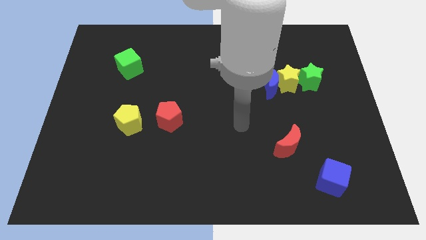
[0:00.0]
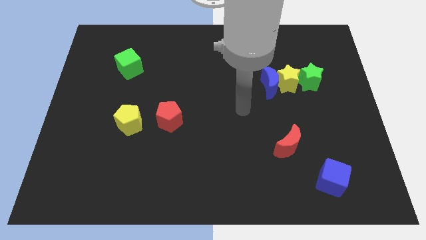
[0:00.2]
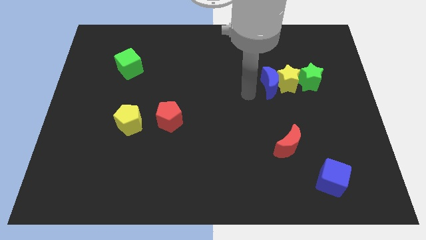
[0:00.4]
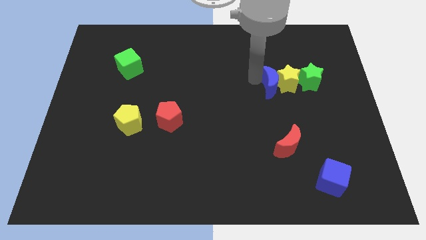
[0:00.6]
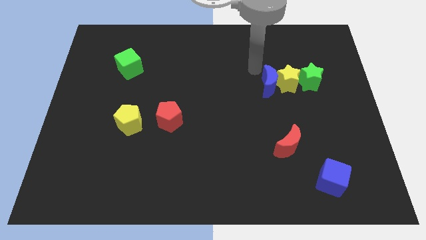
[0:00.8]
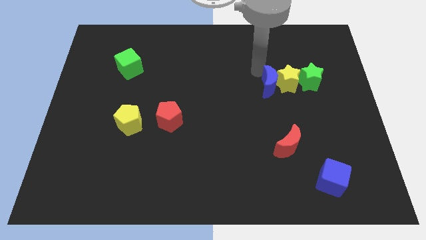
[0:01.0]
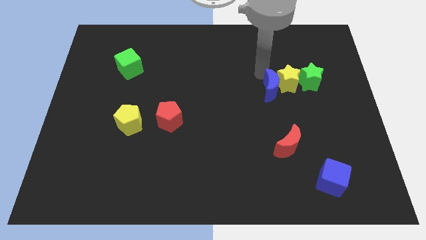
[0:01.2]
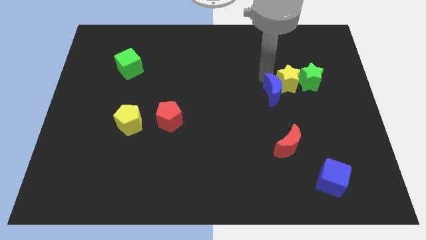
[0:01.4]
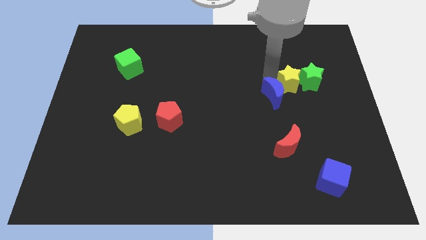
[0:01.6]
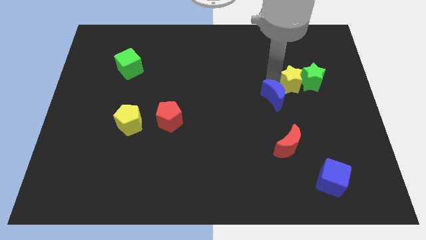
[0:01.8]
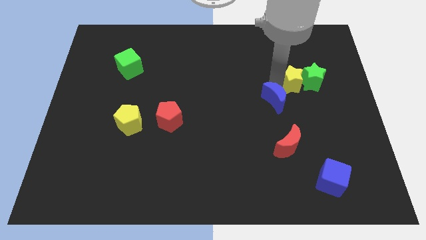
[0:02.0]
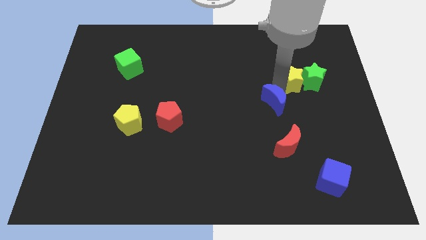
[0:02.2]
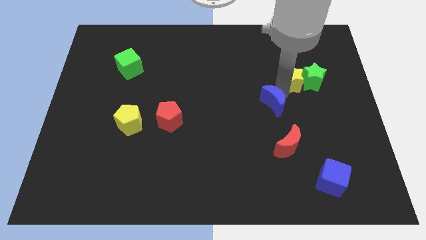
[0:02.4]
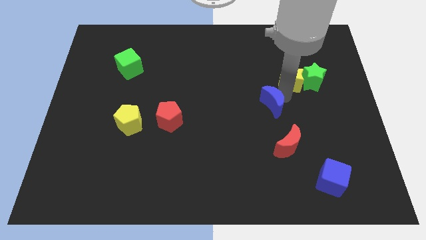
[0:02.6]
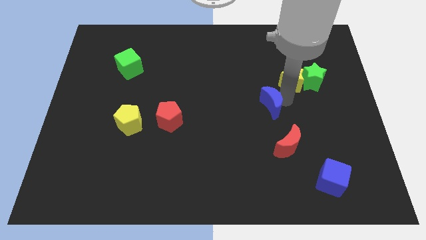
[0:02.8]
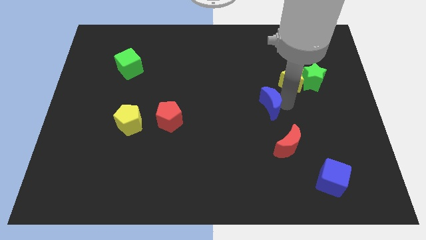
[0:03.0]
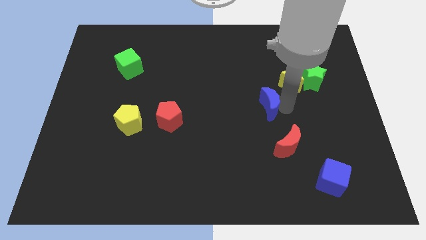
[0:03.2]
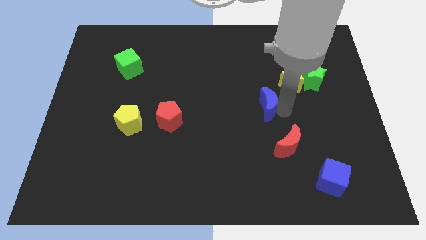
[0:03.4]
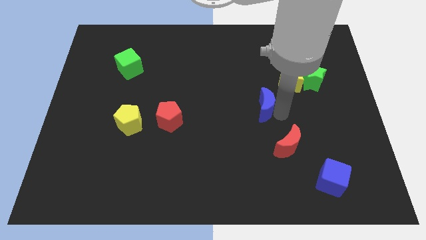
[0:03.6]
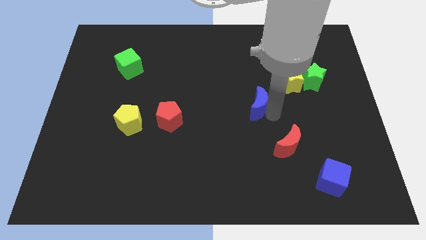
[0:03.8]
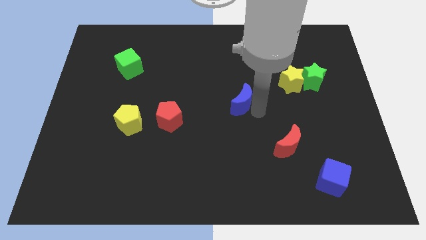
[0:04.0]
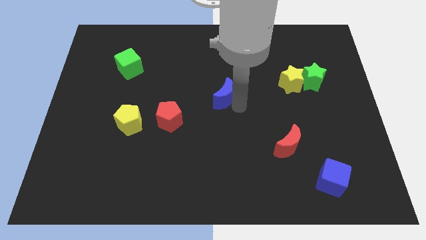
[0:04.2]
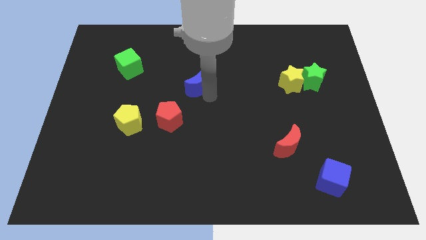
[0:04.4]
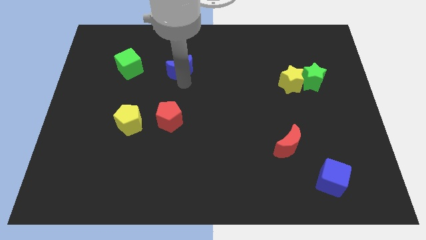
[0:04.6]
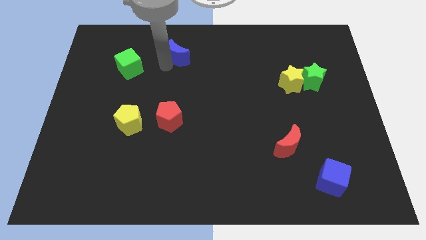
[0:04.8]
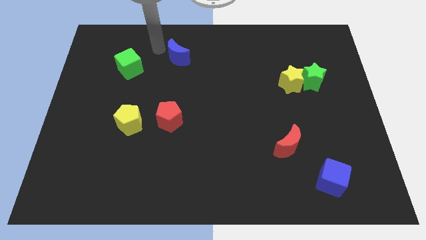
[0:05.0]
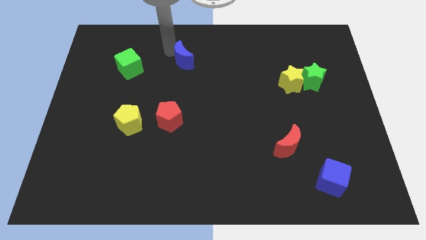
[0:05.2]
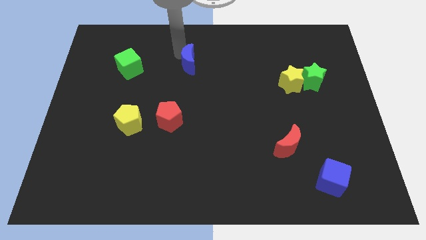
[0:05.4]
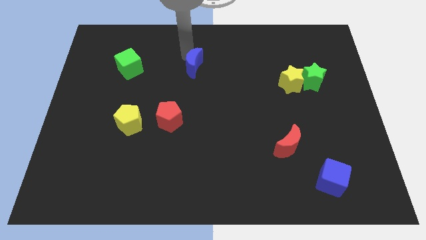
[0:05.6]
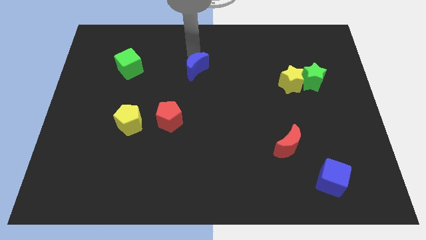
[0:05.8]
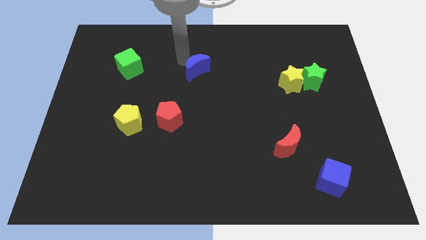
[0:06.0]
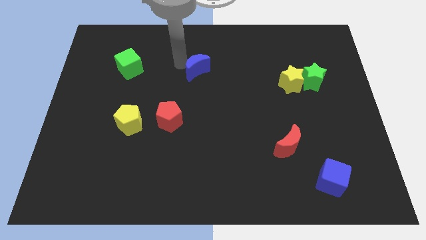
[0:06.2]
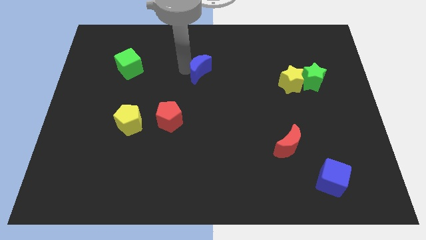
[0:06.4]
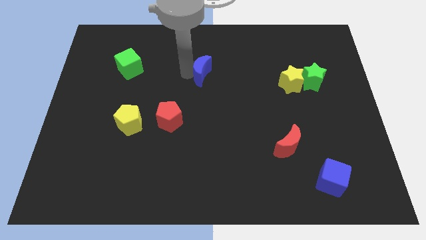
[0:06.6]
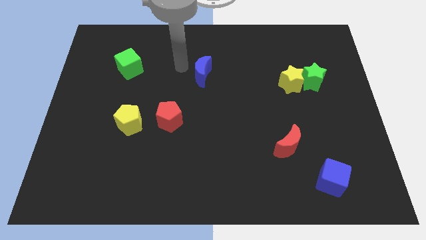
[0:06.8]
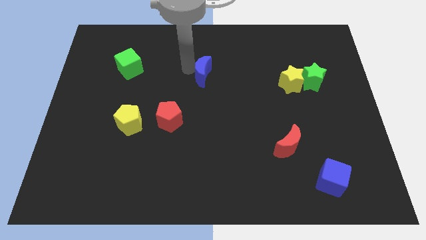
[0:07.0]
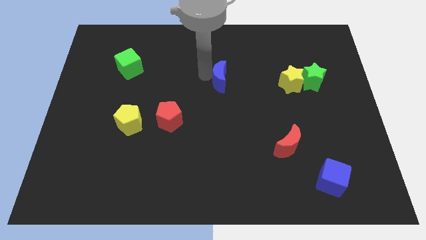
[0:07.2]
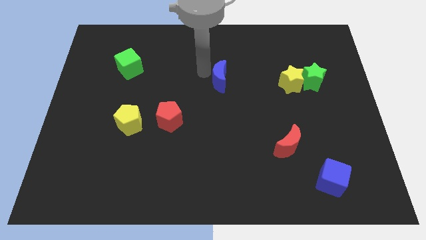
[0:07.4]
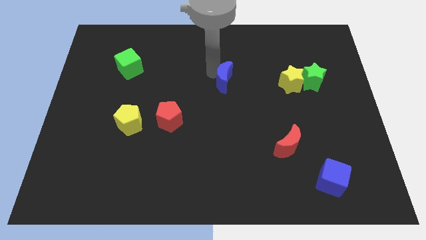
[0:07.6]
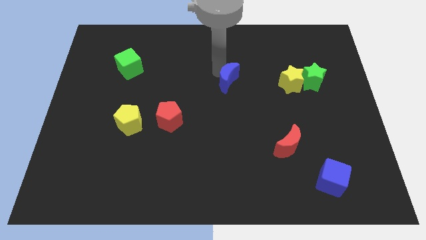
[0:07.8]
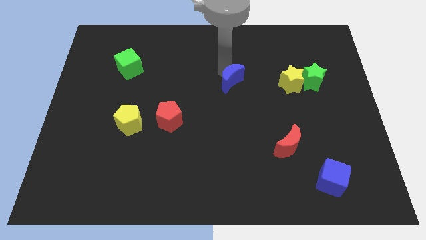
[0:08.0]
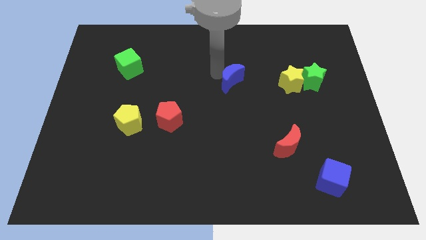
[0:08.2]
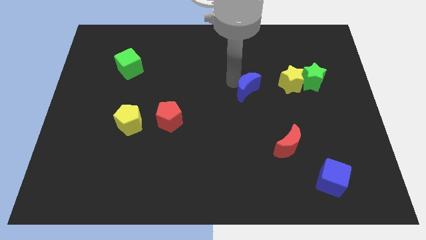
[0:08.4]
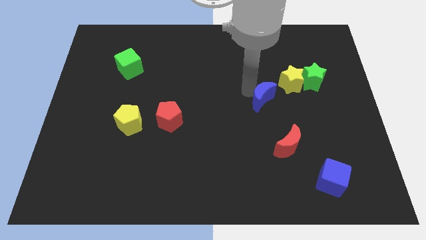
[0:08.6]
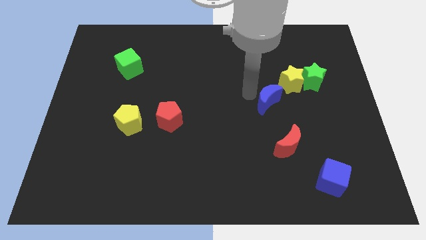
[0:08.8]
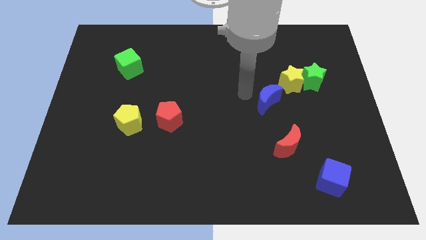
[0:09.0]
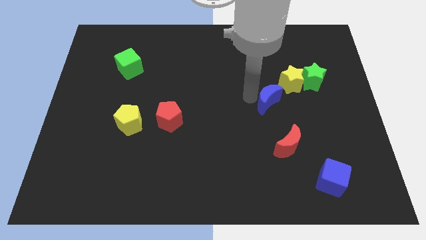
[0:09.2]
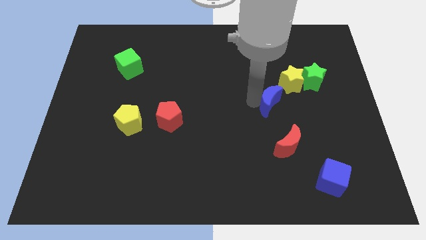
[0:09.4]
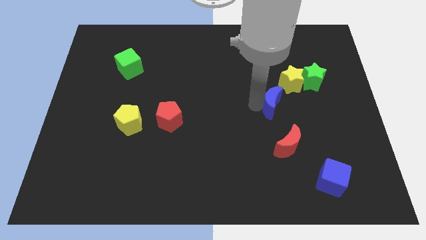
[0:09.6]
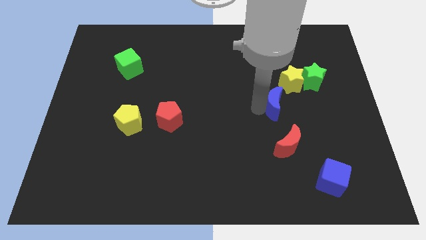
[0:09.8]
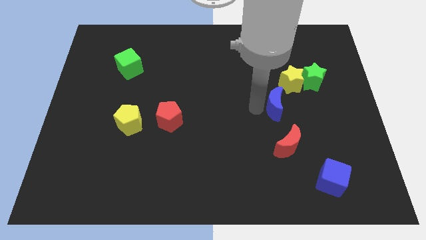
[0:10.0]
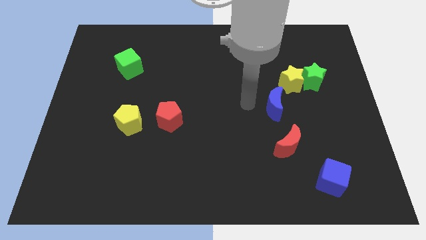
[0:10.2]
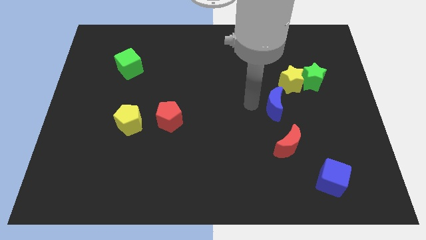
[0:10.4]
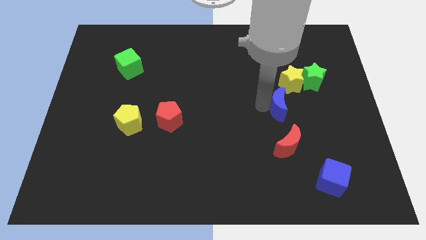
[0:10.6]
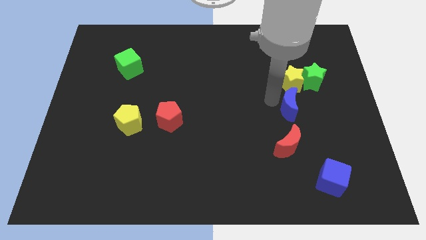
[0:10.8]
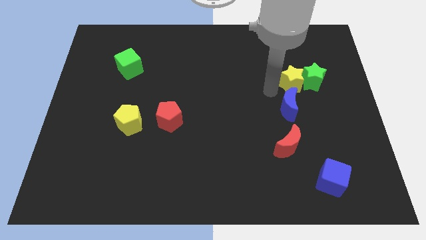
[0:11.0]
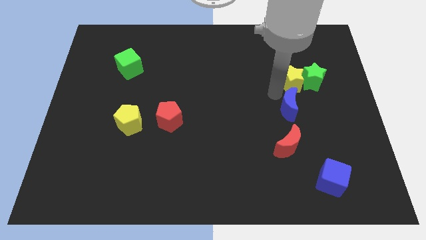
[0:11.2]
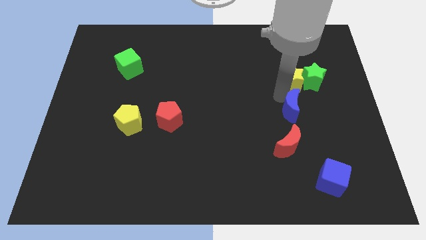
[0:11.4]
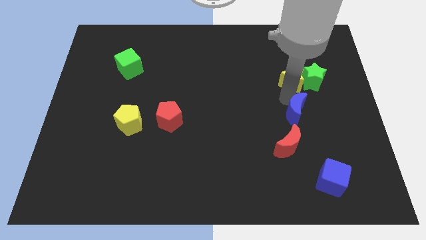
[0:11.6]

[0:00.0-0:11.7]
push the blue moon to the top right of the red moon

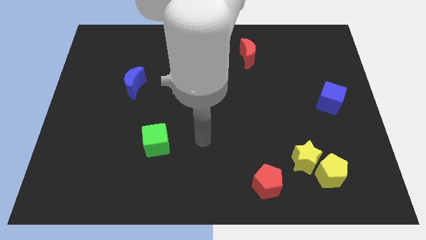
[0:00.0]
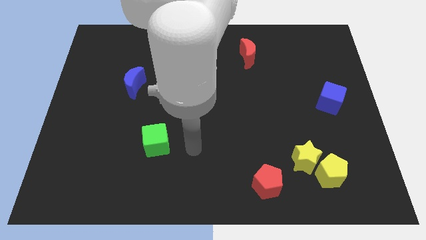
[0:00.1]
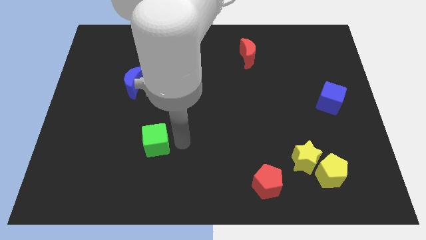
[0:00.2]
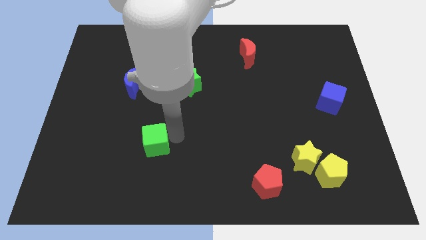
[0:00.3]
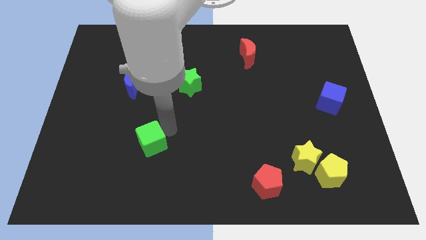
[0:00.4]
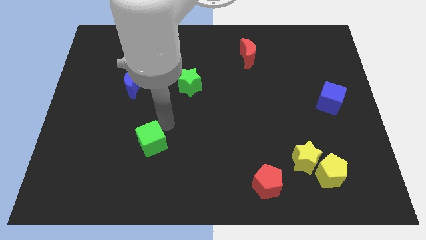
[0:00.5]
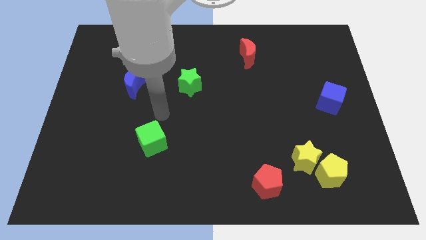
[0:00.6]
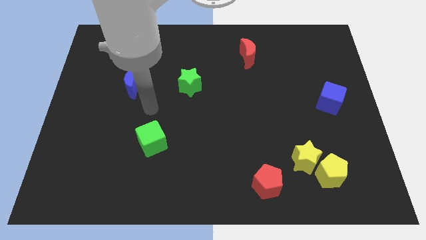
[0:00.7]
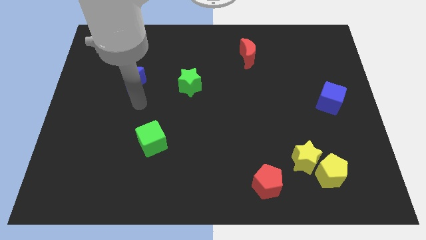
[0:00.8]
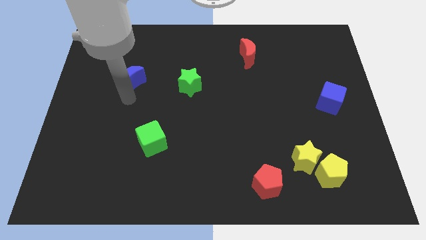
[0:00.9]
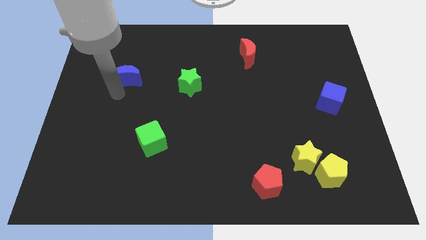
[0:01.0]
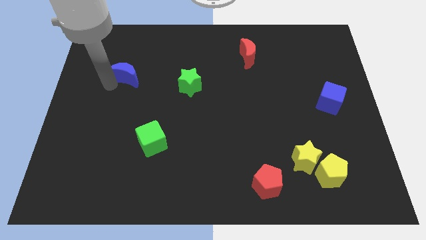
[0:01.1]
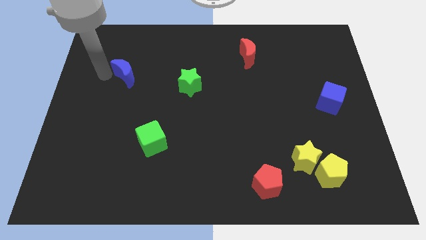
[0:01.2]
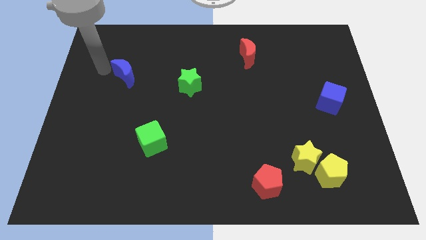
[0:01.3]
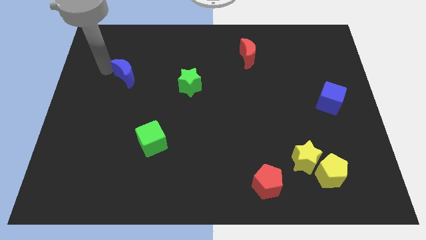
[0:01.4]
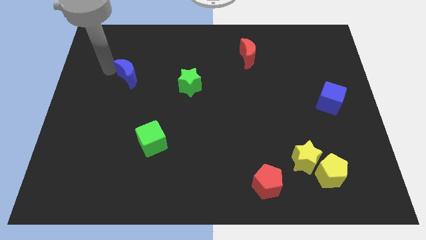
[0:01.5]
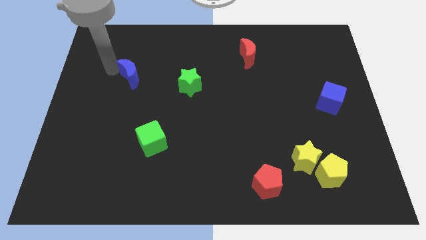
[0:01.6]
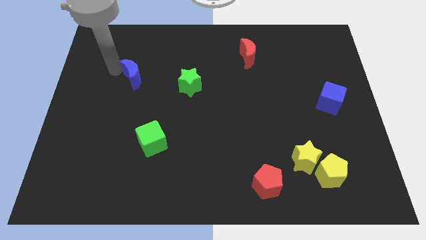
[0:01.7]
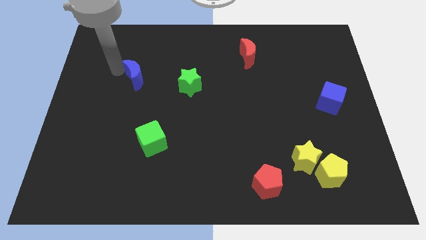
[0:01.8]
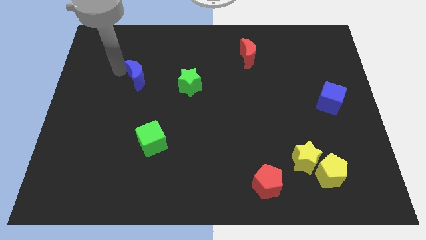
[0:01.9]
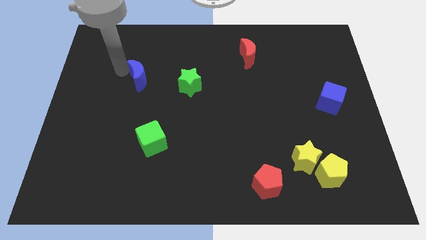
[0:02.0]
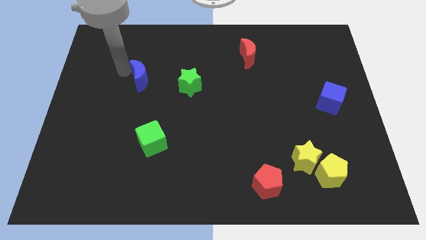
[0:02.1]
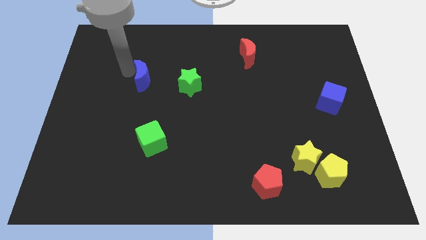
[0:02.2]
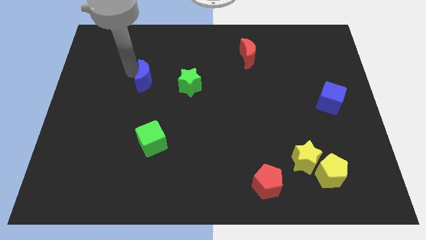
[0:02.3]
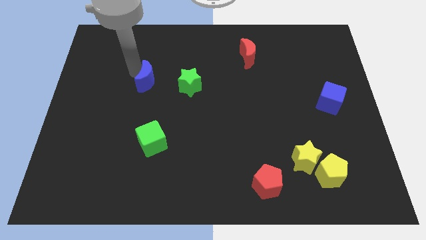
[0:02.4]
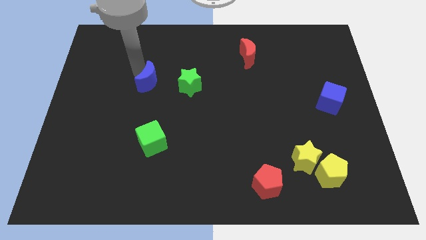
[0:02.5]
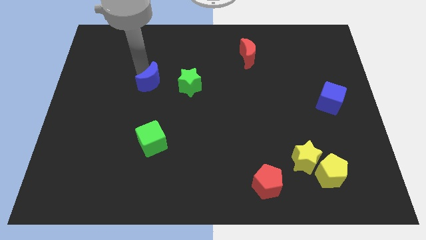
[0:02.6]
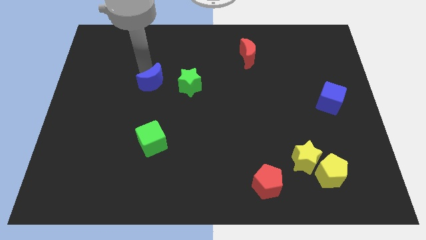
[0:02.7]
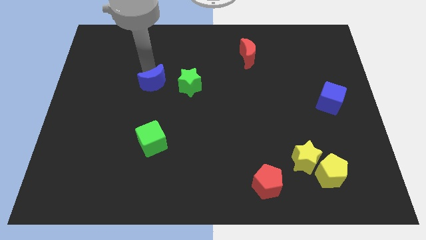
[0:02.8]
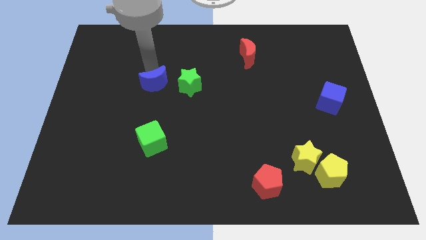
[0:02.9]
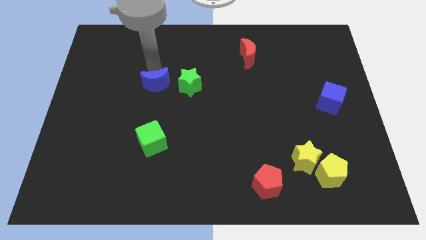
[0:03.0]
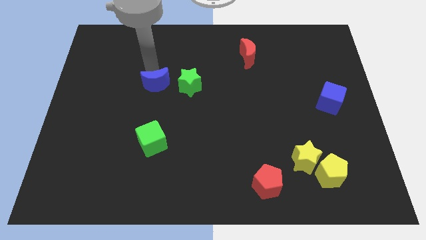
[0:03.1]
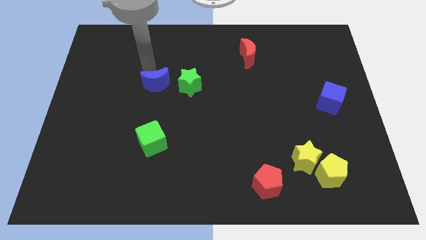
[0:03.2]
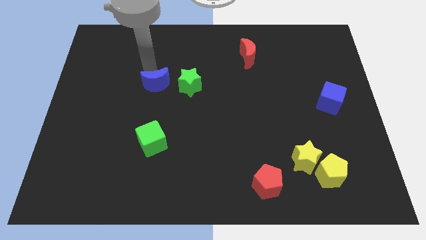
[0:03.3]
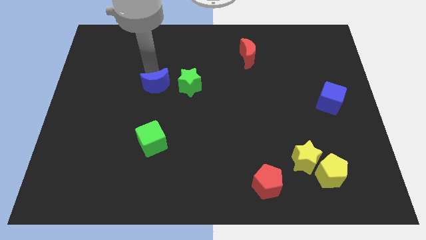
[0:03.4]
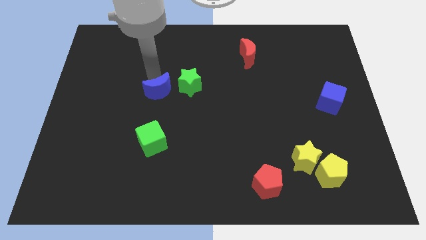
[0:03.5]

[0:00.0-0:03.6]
push the blue moon diagonally down and to the left of the green star
